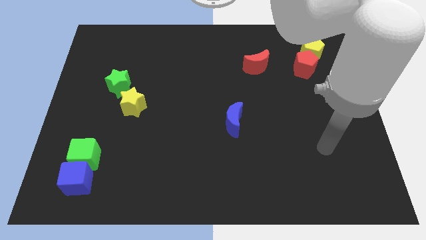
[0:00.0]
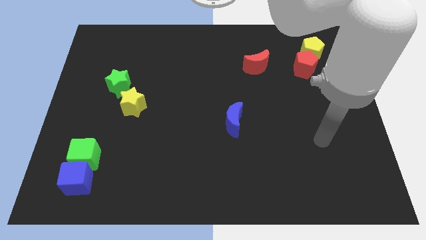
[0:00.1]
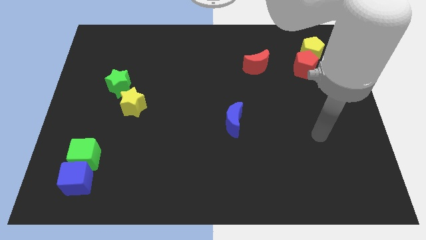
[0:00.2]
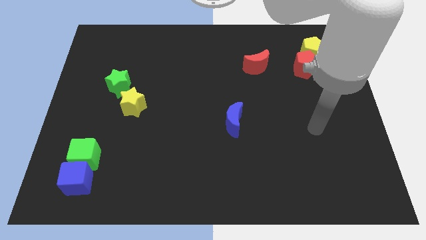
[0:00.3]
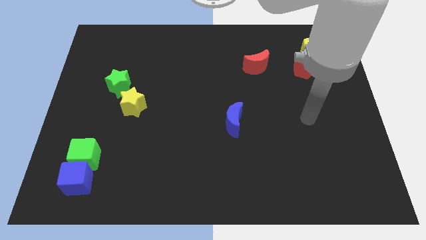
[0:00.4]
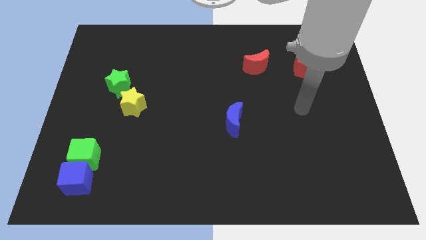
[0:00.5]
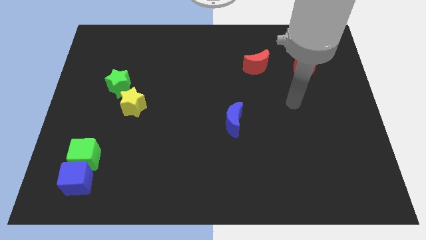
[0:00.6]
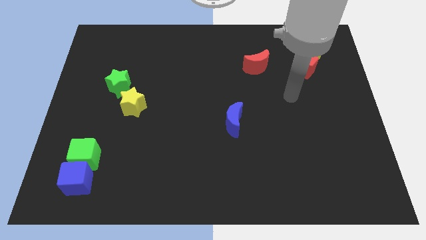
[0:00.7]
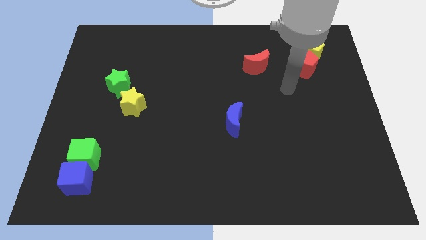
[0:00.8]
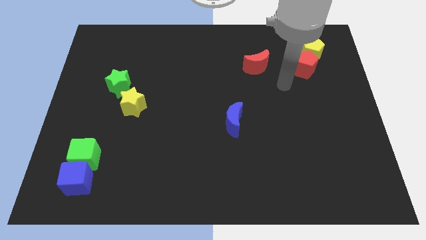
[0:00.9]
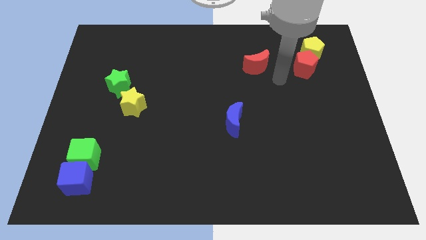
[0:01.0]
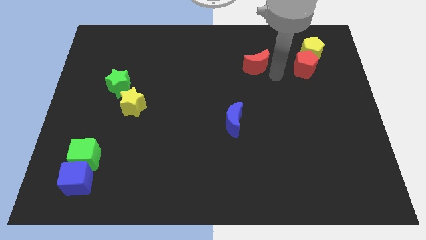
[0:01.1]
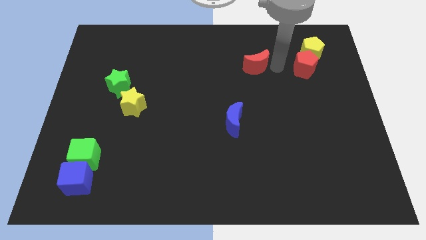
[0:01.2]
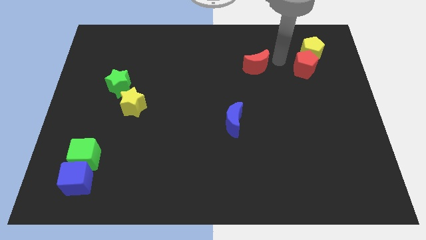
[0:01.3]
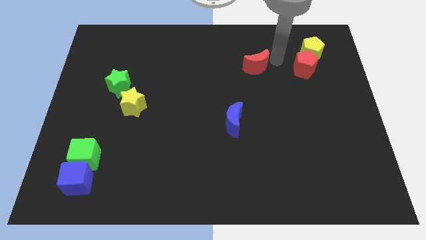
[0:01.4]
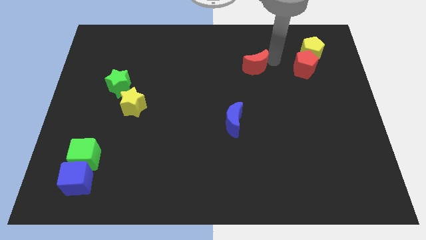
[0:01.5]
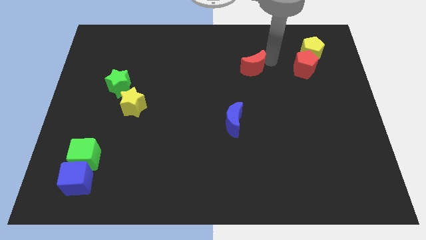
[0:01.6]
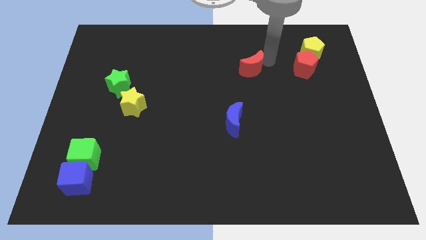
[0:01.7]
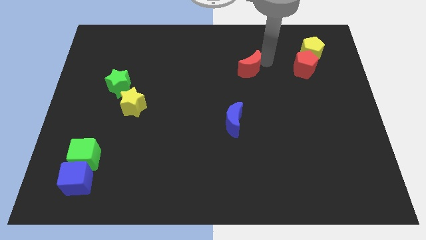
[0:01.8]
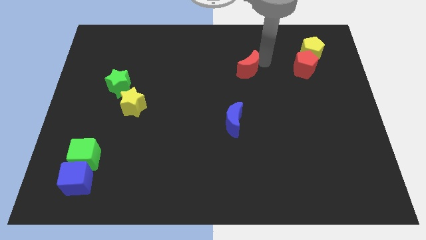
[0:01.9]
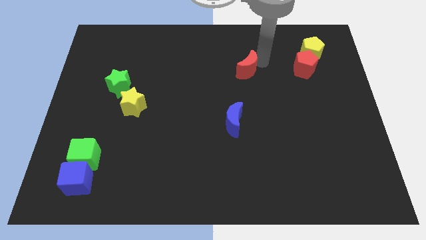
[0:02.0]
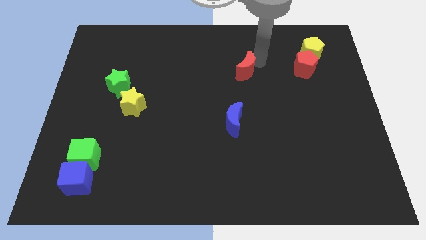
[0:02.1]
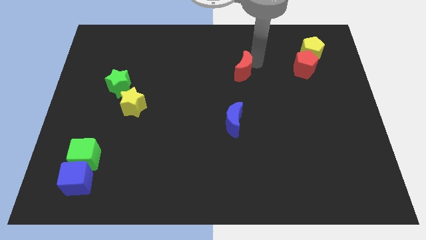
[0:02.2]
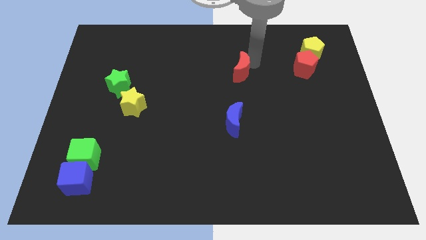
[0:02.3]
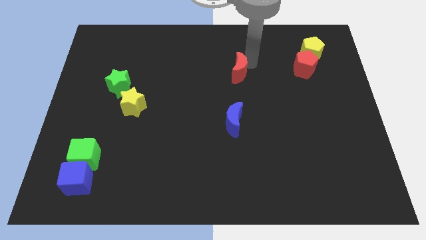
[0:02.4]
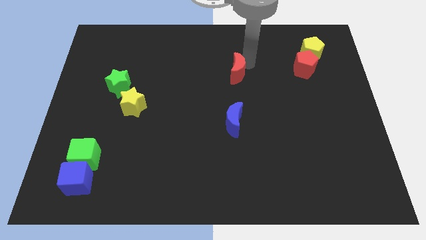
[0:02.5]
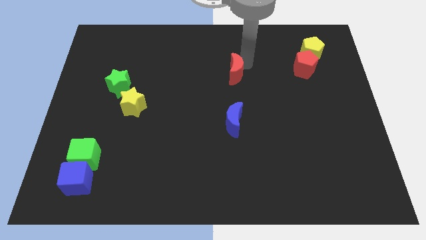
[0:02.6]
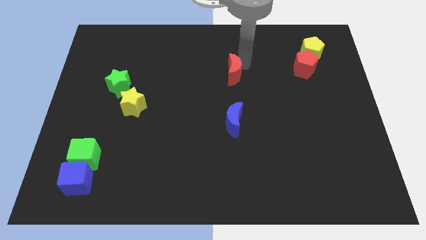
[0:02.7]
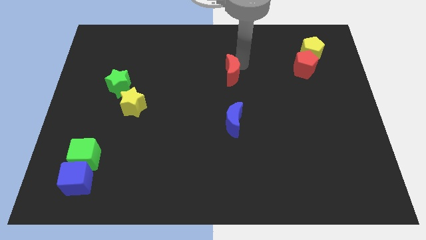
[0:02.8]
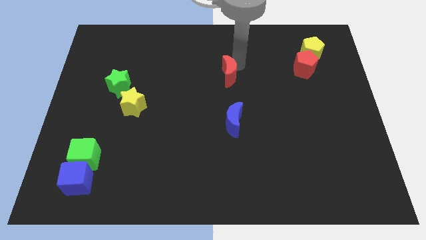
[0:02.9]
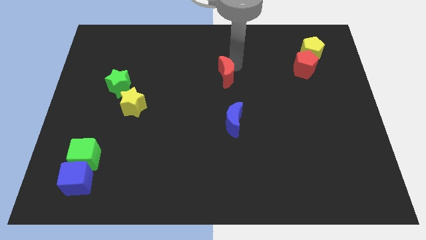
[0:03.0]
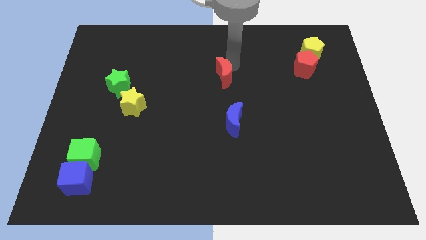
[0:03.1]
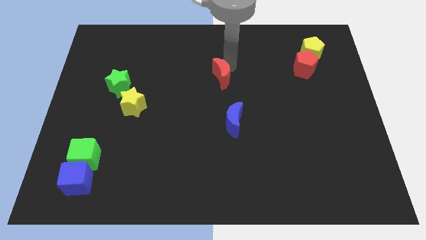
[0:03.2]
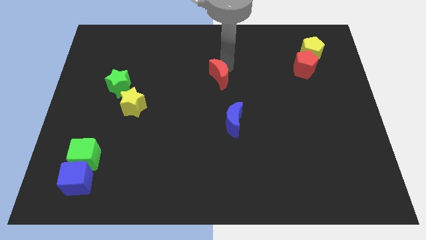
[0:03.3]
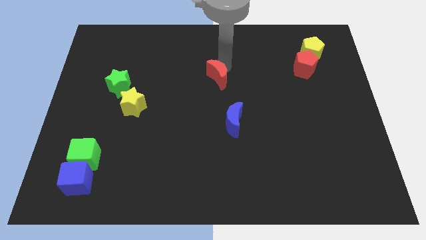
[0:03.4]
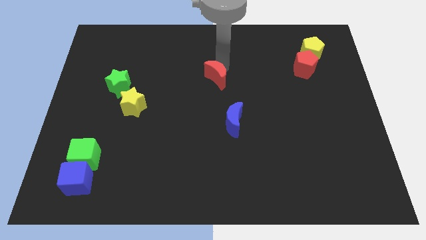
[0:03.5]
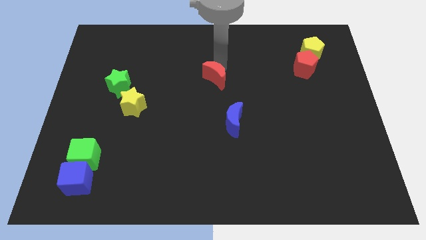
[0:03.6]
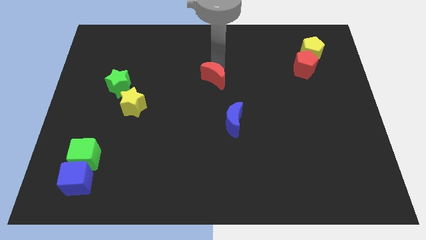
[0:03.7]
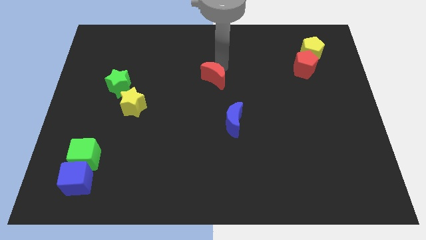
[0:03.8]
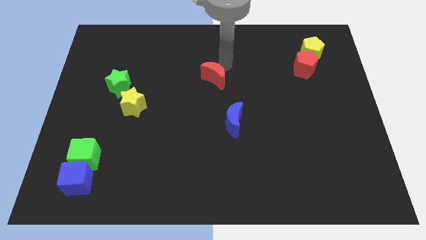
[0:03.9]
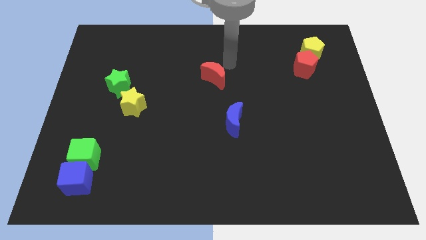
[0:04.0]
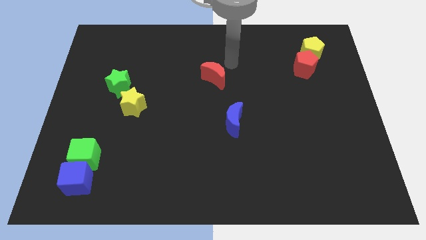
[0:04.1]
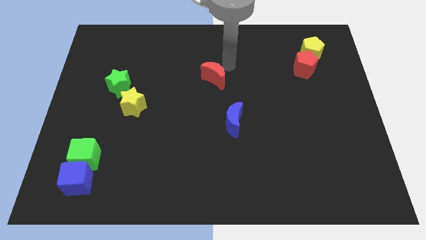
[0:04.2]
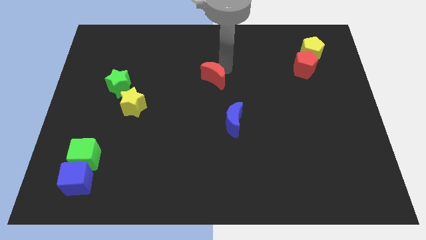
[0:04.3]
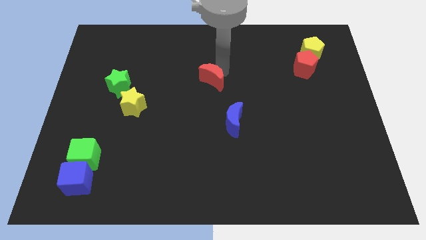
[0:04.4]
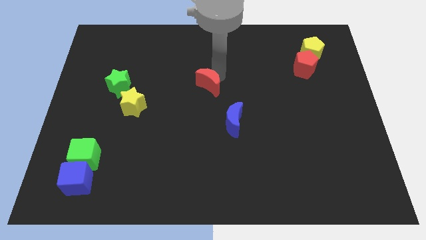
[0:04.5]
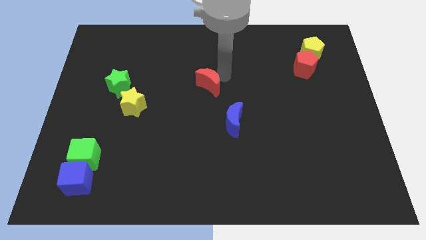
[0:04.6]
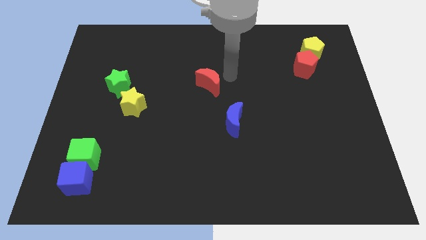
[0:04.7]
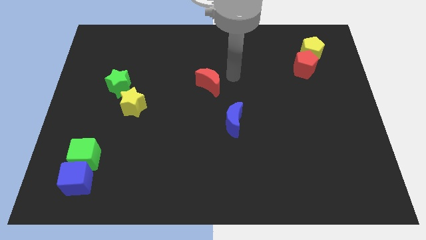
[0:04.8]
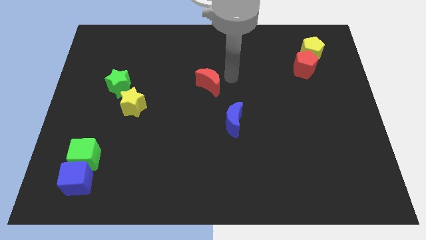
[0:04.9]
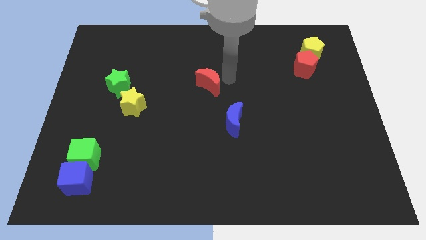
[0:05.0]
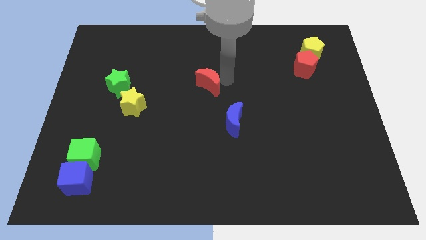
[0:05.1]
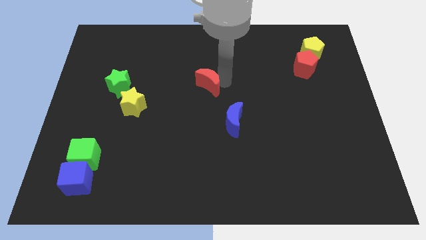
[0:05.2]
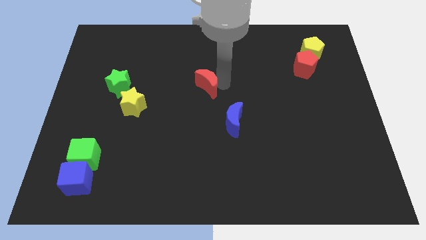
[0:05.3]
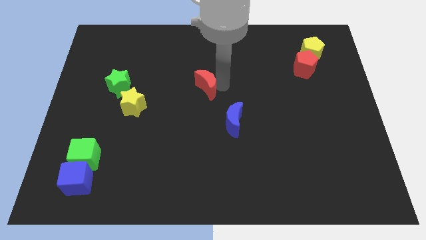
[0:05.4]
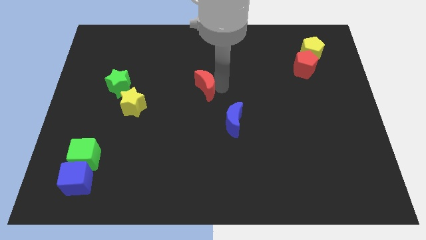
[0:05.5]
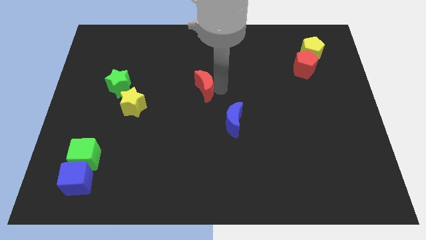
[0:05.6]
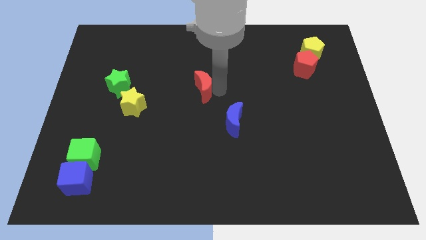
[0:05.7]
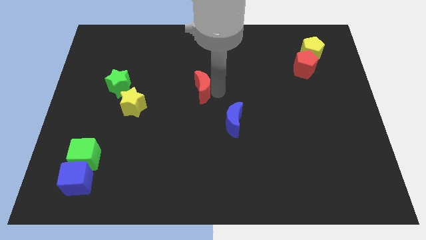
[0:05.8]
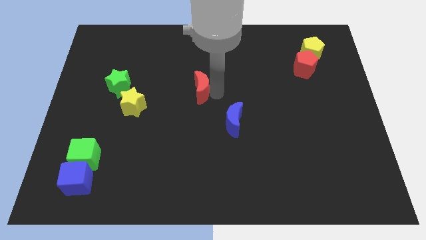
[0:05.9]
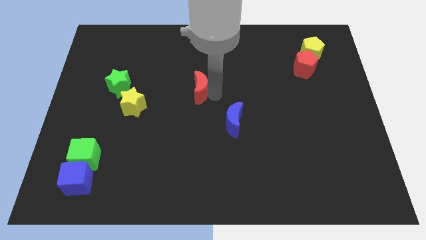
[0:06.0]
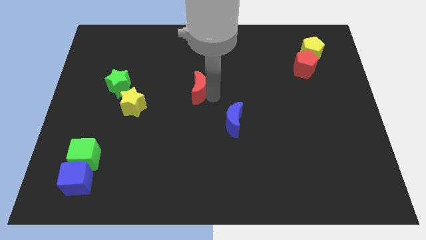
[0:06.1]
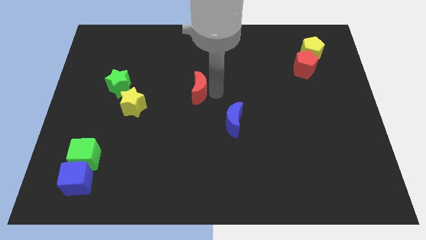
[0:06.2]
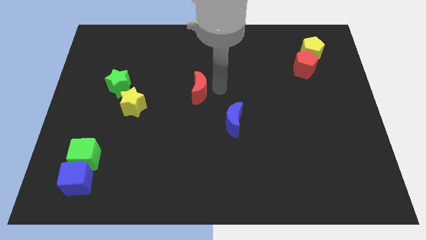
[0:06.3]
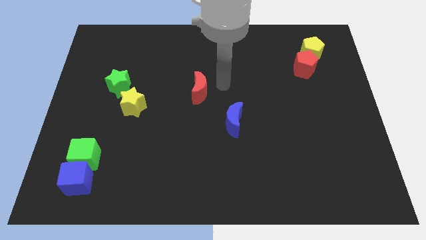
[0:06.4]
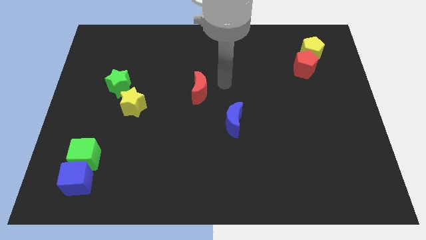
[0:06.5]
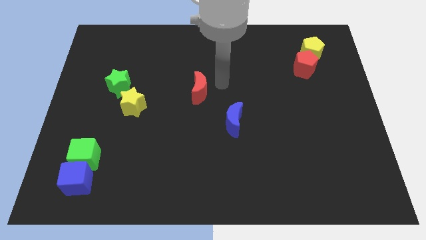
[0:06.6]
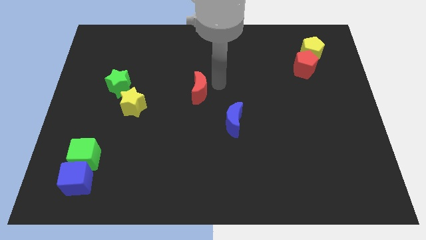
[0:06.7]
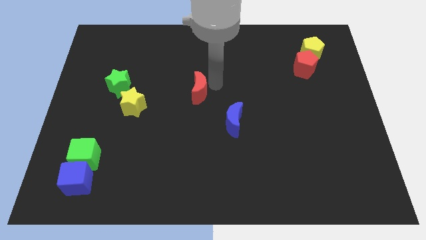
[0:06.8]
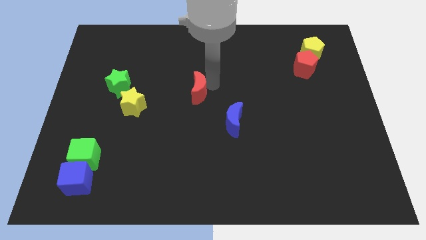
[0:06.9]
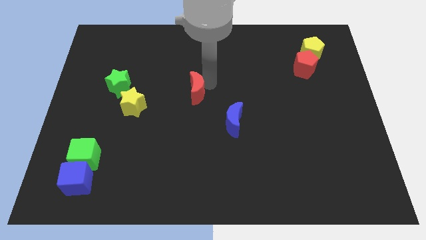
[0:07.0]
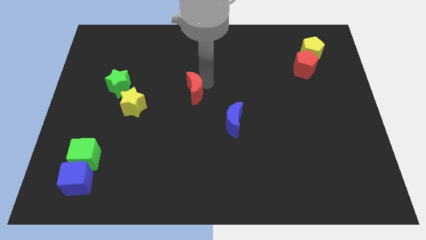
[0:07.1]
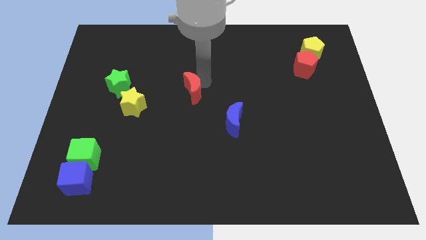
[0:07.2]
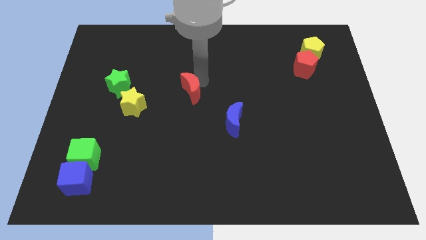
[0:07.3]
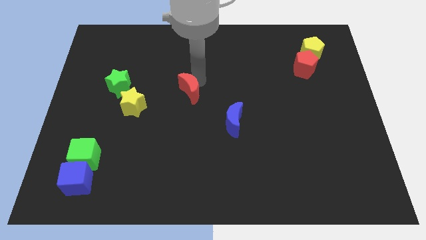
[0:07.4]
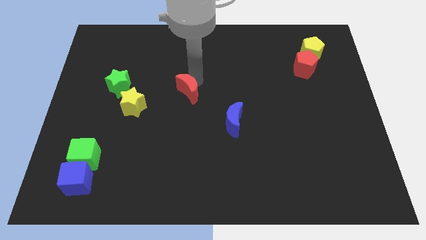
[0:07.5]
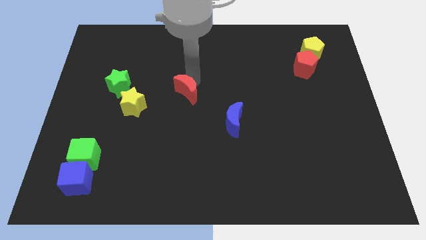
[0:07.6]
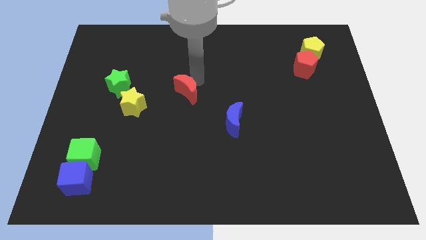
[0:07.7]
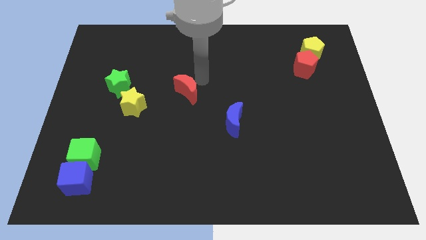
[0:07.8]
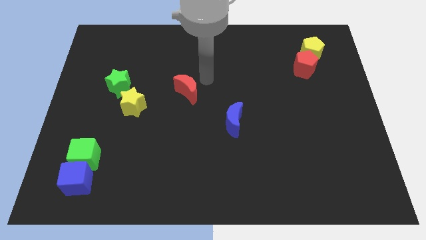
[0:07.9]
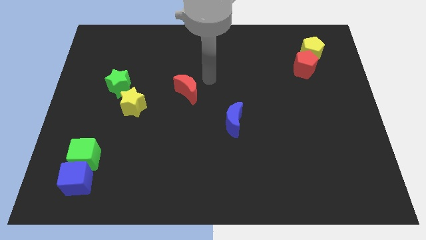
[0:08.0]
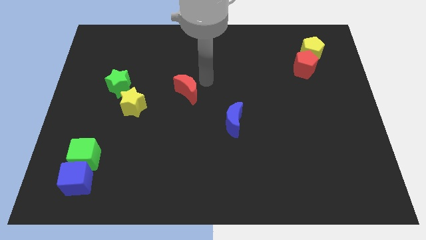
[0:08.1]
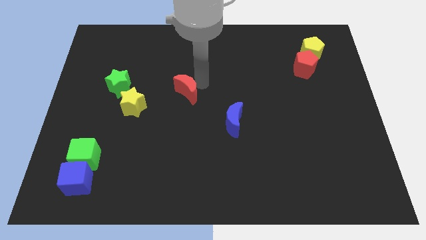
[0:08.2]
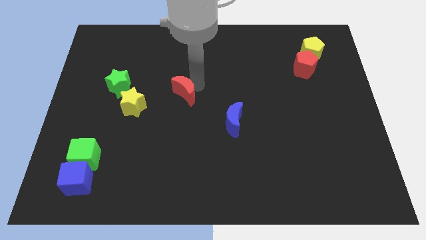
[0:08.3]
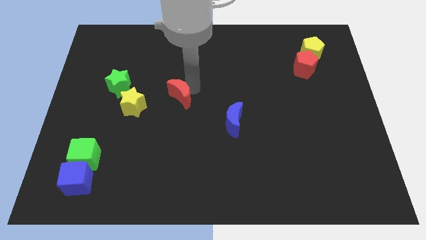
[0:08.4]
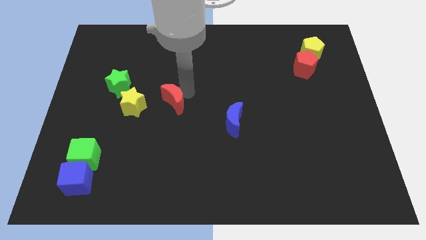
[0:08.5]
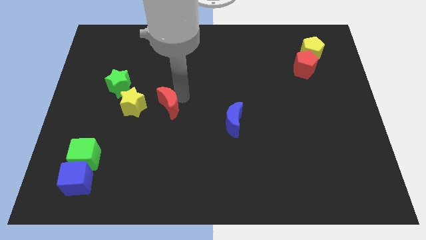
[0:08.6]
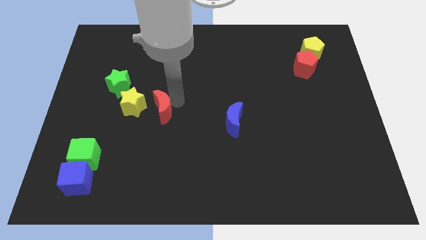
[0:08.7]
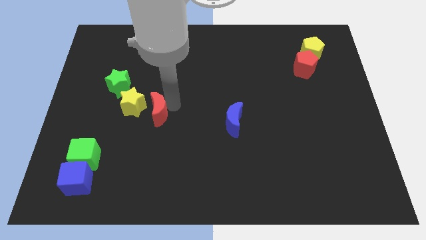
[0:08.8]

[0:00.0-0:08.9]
put the red moon to the bottom right side of the green star
